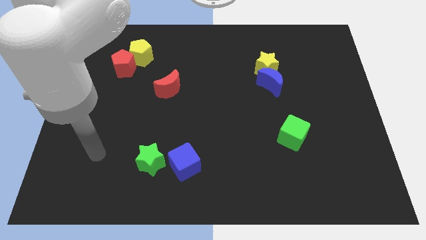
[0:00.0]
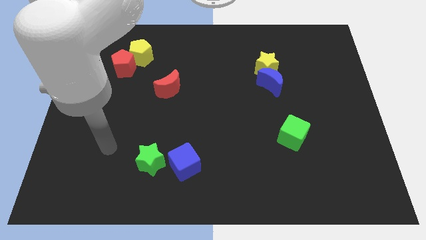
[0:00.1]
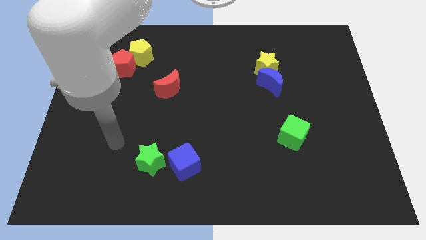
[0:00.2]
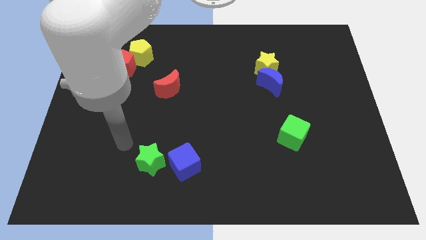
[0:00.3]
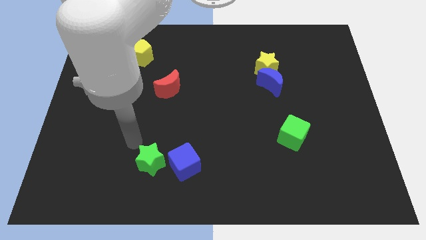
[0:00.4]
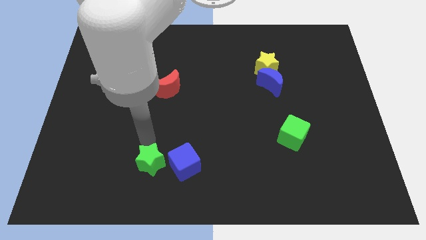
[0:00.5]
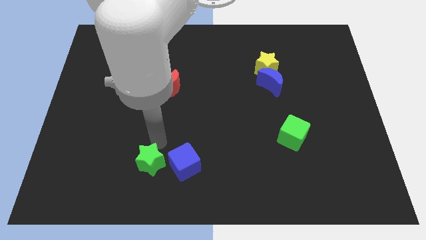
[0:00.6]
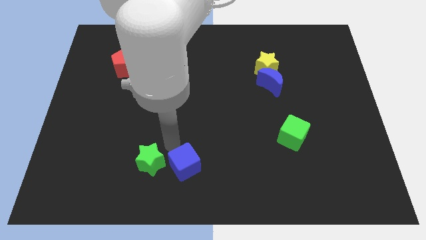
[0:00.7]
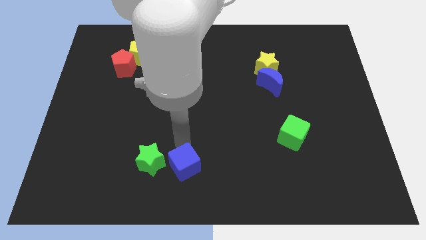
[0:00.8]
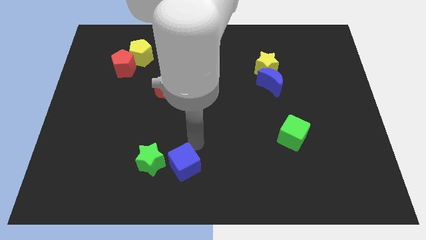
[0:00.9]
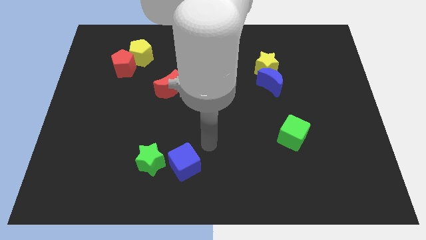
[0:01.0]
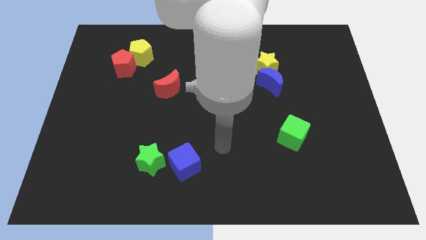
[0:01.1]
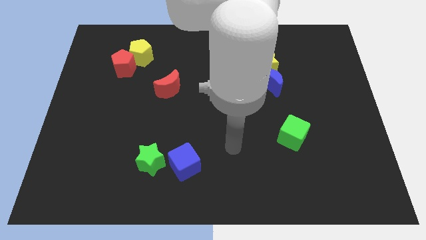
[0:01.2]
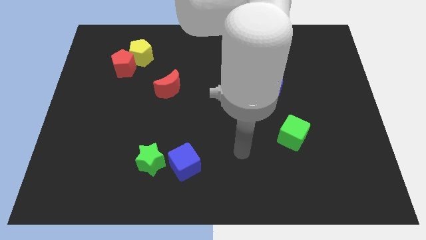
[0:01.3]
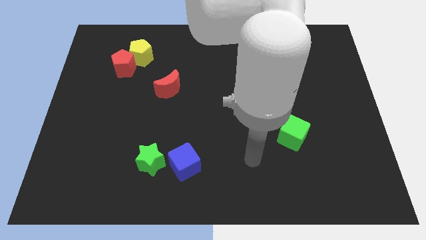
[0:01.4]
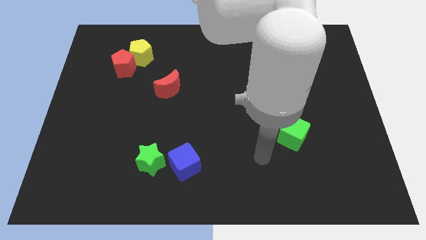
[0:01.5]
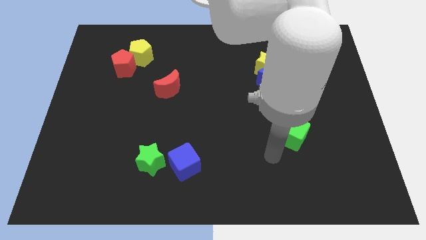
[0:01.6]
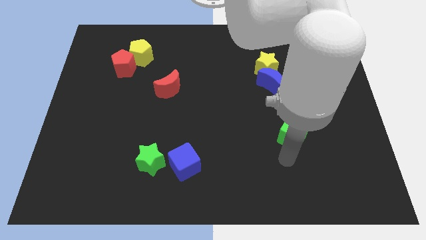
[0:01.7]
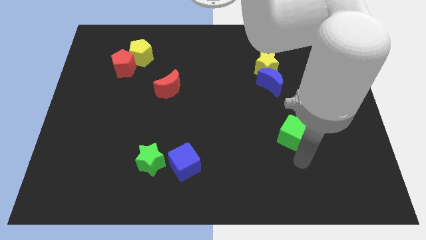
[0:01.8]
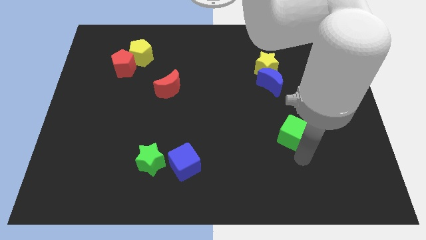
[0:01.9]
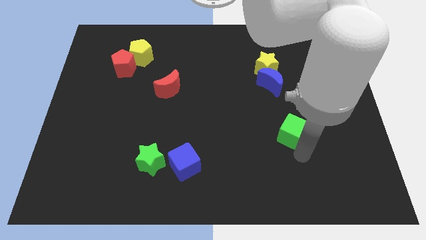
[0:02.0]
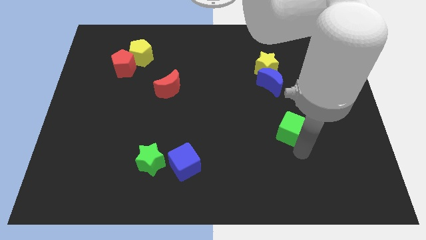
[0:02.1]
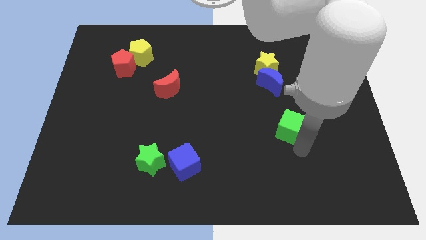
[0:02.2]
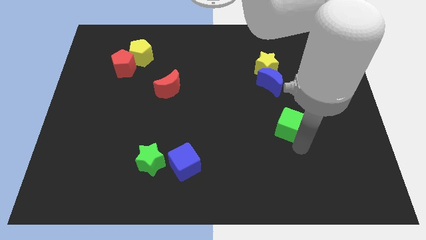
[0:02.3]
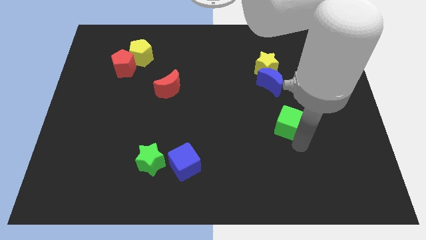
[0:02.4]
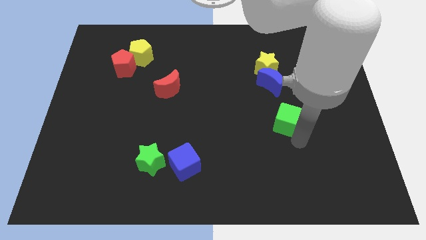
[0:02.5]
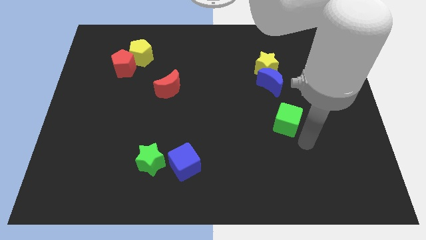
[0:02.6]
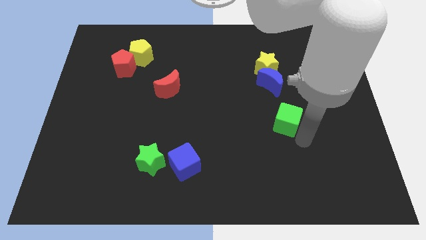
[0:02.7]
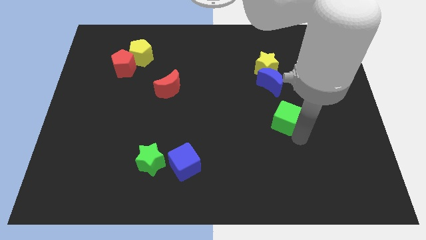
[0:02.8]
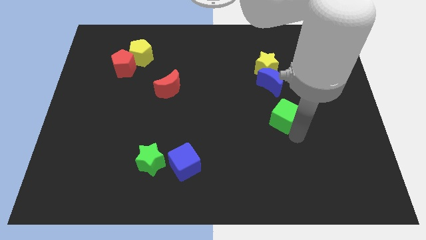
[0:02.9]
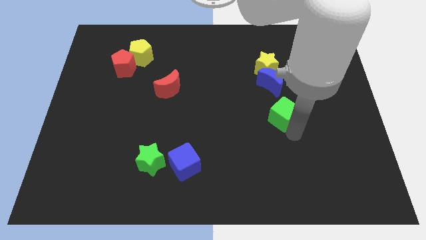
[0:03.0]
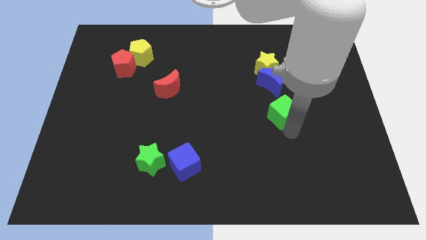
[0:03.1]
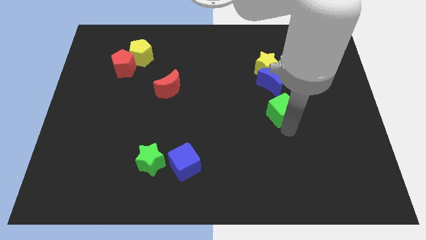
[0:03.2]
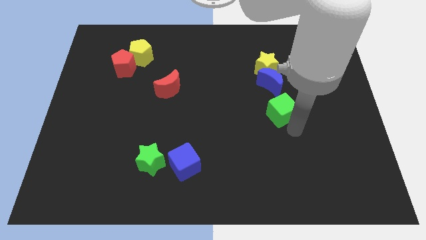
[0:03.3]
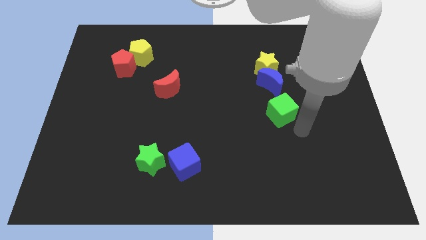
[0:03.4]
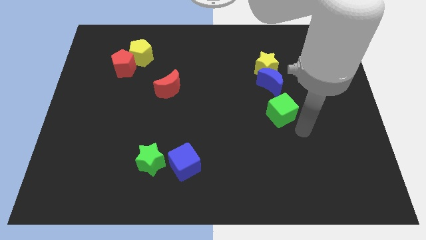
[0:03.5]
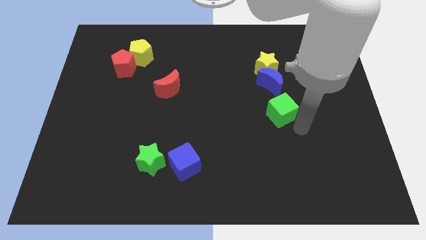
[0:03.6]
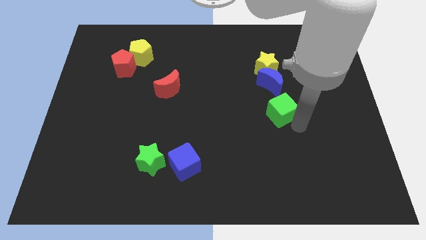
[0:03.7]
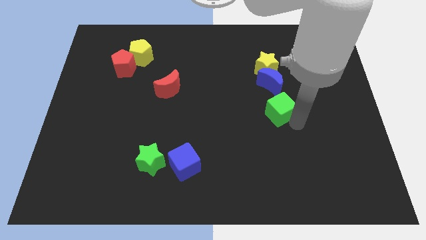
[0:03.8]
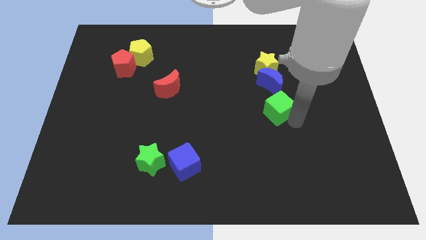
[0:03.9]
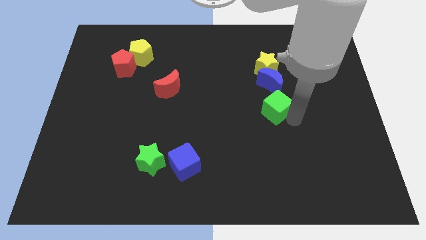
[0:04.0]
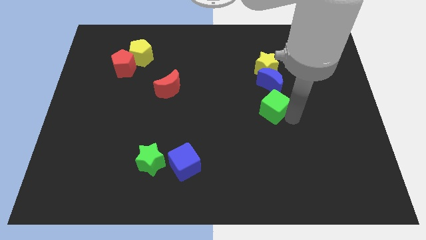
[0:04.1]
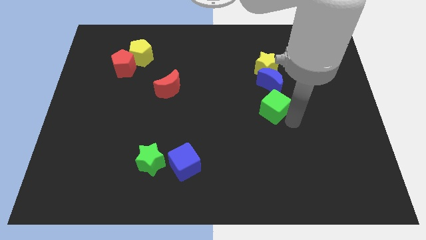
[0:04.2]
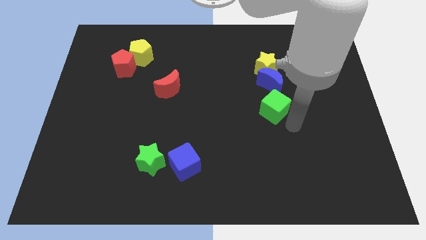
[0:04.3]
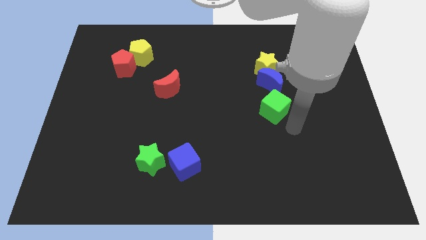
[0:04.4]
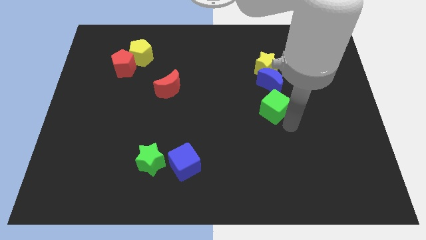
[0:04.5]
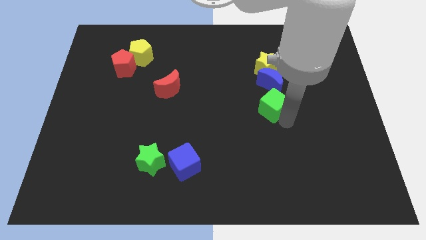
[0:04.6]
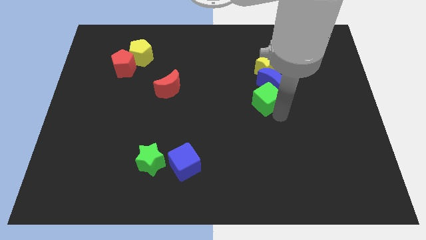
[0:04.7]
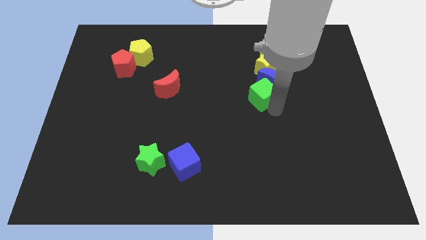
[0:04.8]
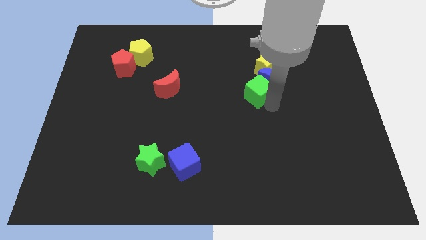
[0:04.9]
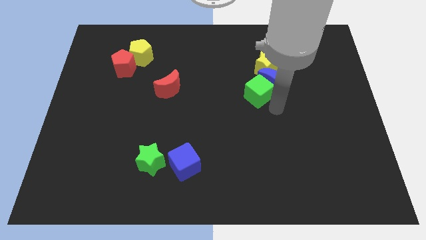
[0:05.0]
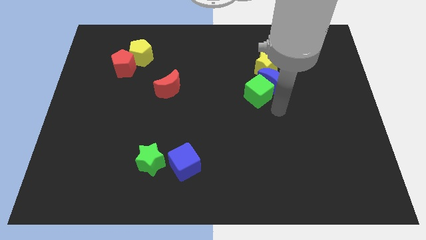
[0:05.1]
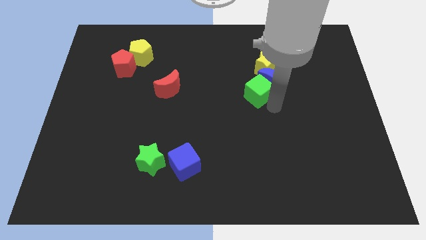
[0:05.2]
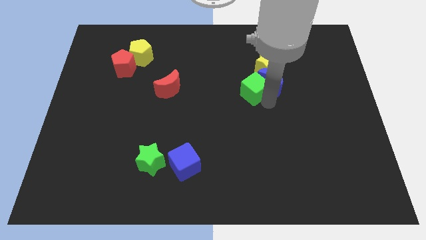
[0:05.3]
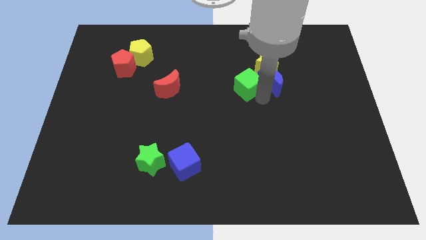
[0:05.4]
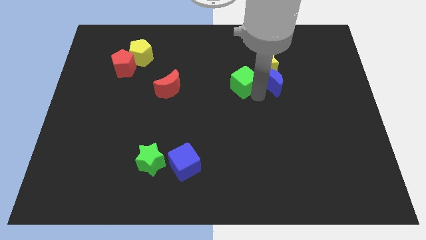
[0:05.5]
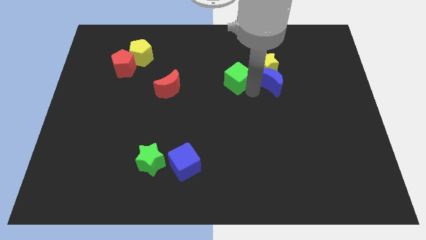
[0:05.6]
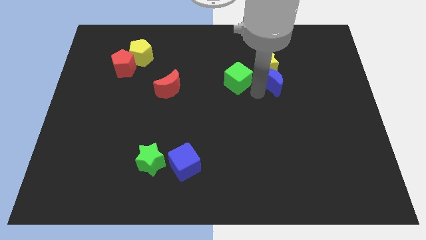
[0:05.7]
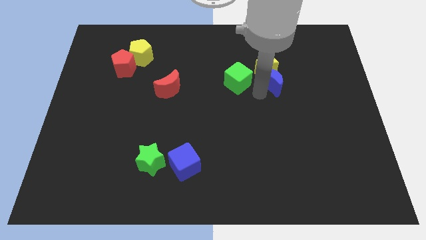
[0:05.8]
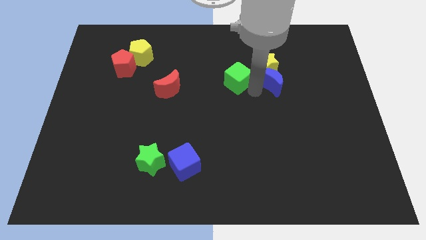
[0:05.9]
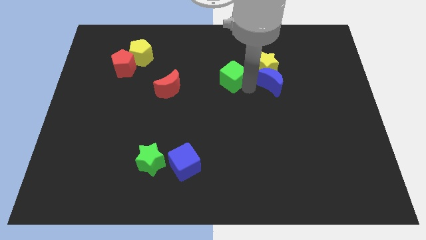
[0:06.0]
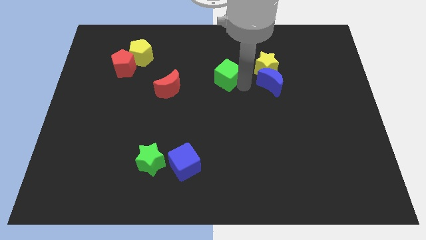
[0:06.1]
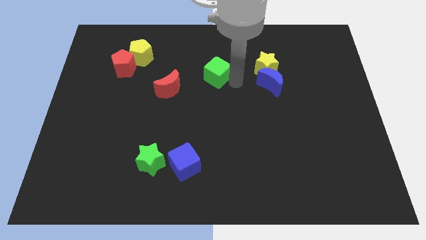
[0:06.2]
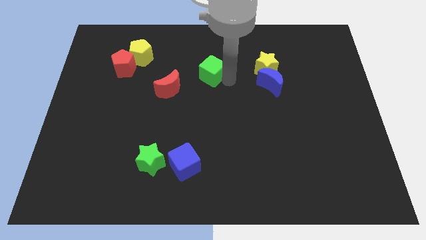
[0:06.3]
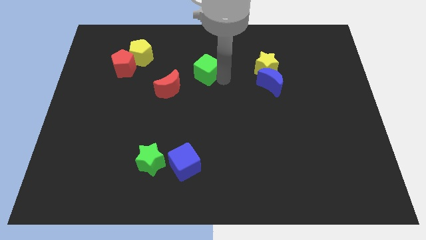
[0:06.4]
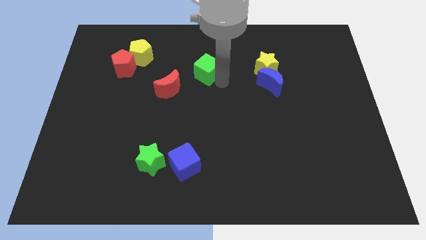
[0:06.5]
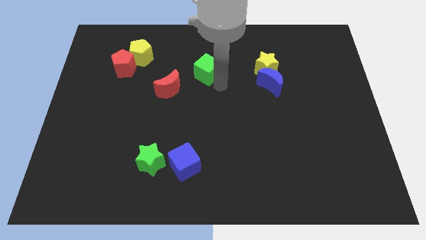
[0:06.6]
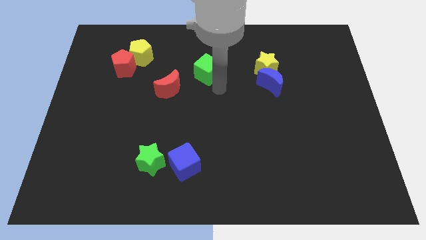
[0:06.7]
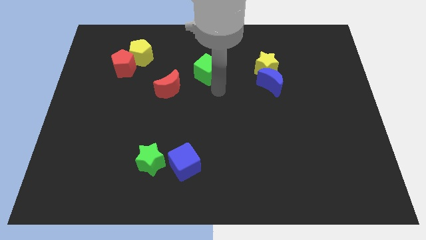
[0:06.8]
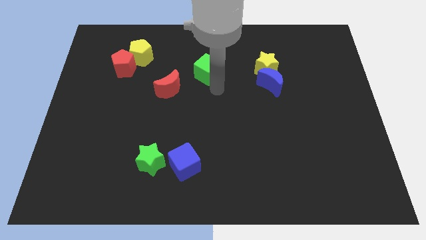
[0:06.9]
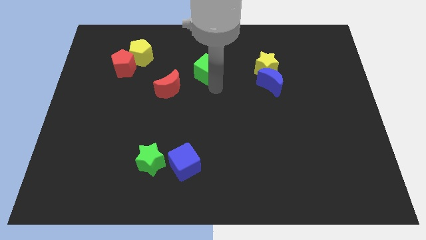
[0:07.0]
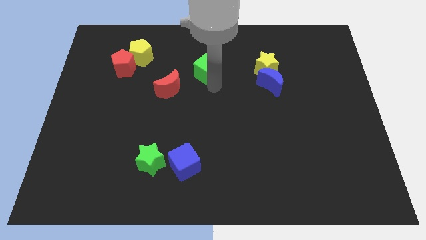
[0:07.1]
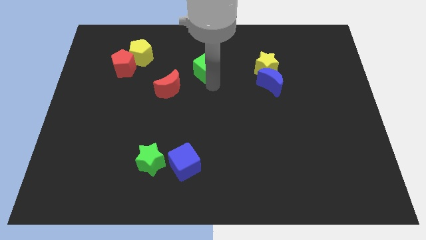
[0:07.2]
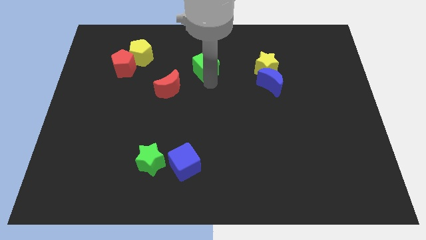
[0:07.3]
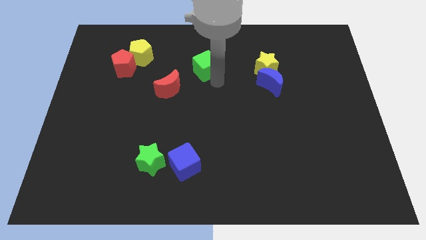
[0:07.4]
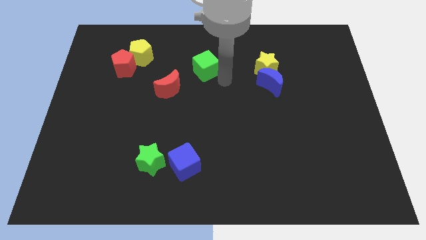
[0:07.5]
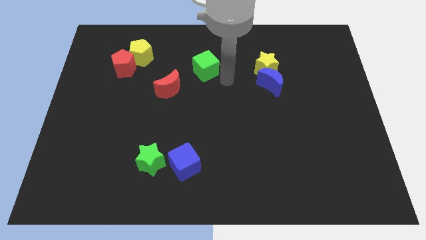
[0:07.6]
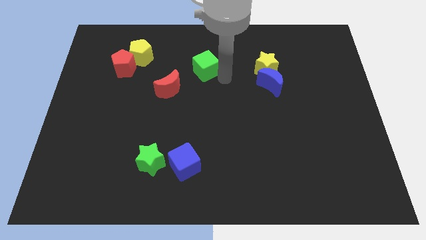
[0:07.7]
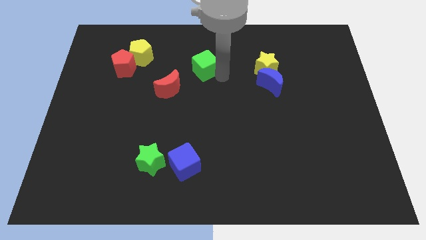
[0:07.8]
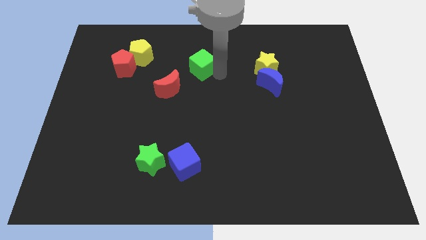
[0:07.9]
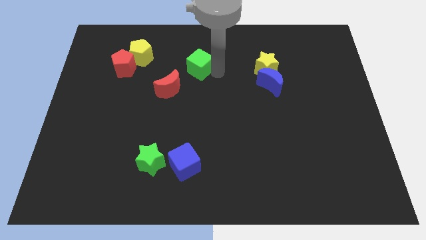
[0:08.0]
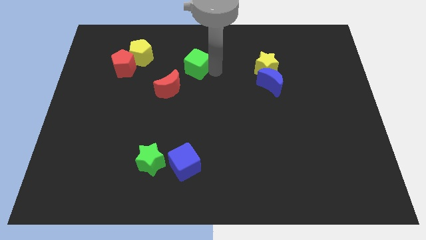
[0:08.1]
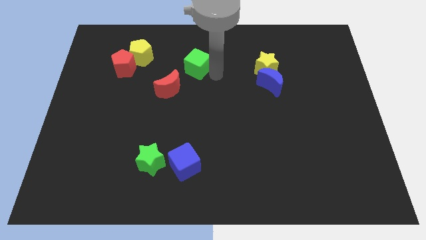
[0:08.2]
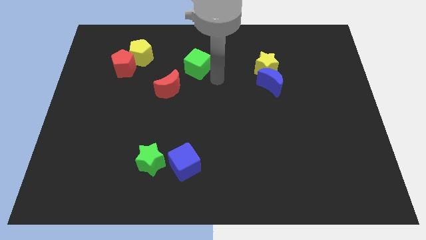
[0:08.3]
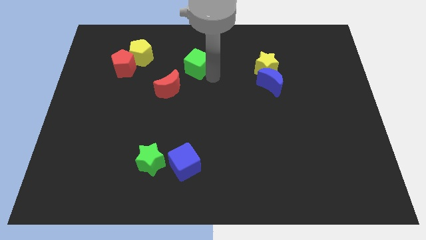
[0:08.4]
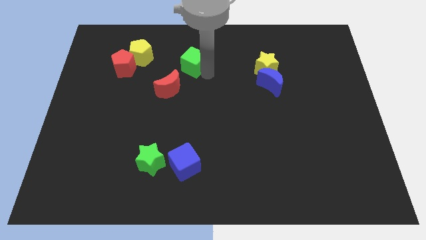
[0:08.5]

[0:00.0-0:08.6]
put the green cube to the right side of the yellow pentagon
